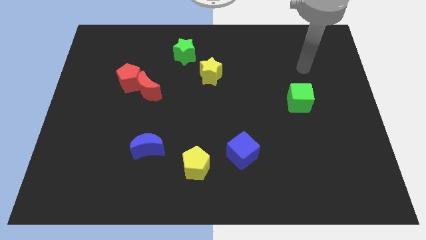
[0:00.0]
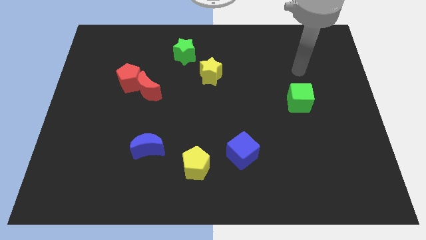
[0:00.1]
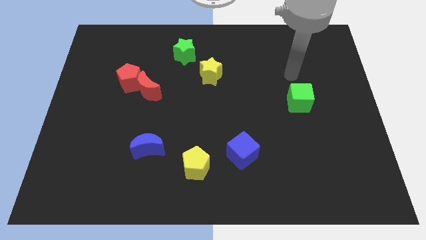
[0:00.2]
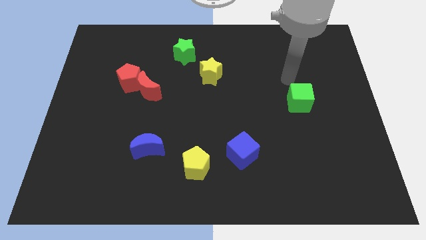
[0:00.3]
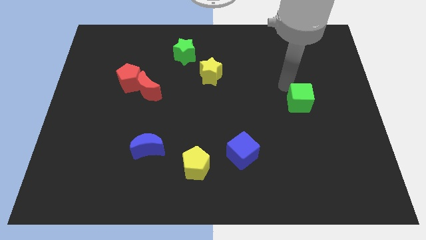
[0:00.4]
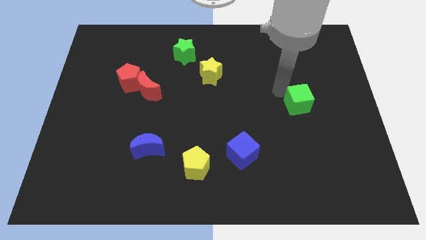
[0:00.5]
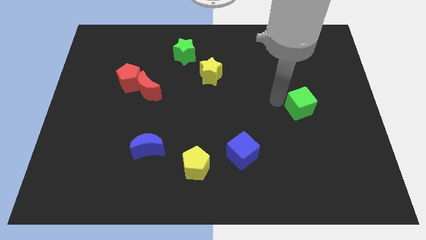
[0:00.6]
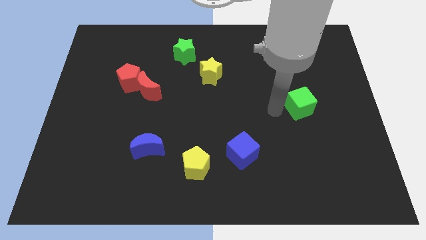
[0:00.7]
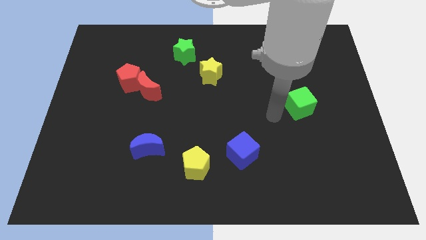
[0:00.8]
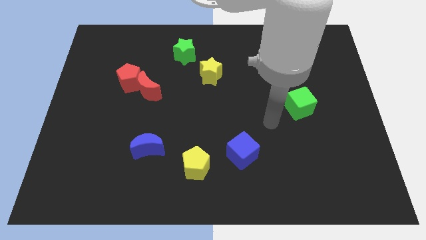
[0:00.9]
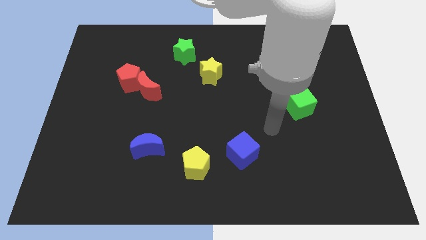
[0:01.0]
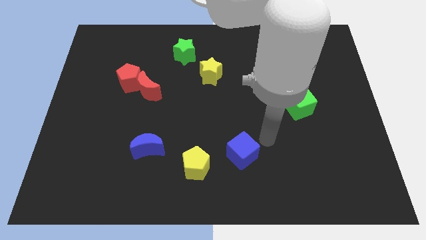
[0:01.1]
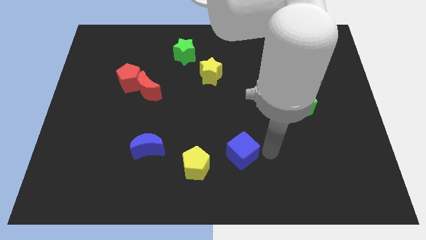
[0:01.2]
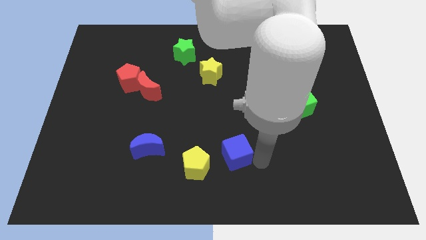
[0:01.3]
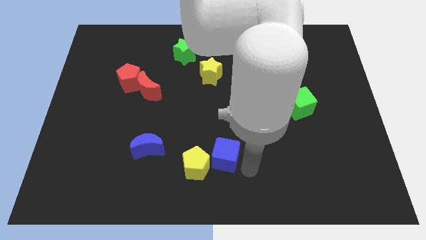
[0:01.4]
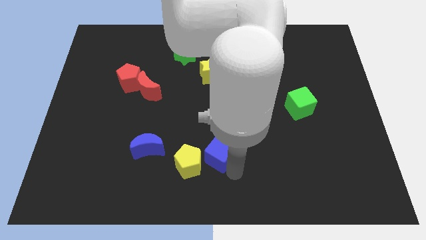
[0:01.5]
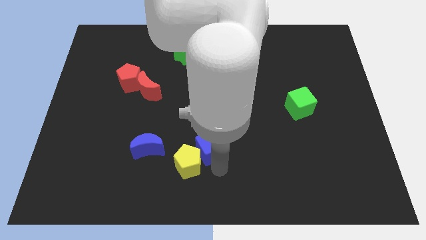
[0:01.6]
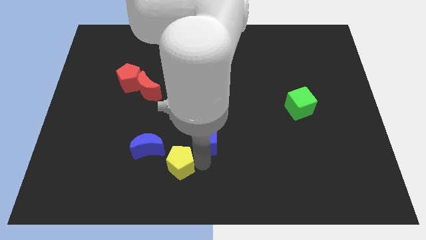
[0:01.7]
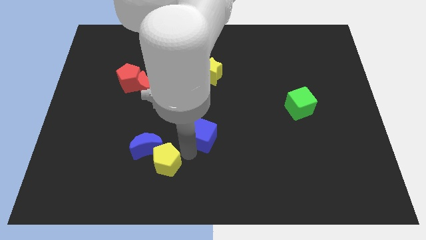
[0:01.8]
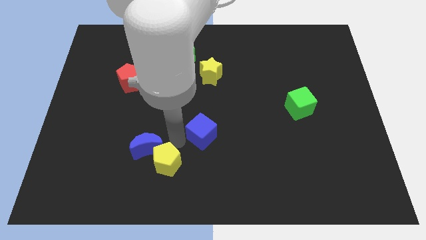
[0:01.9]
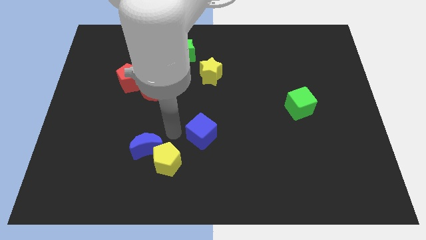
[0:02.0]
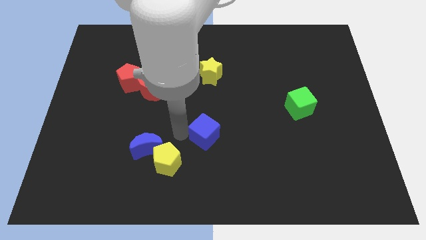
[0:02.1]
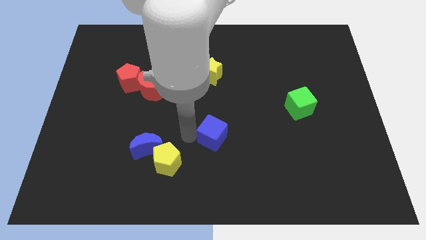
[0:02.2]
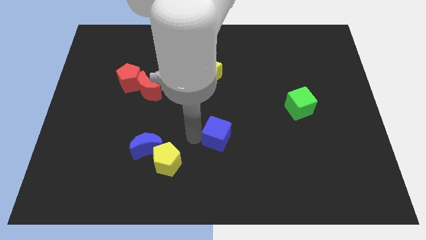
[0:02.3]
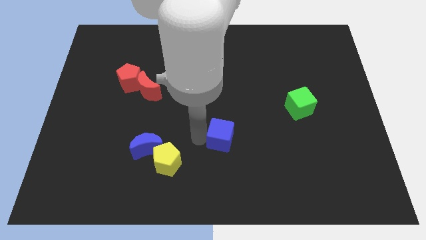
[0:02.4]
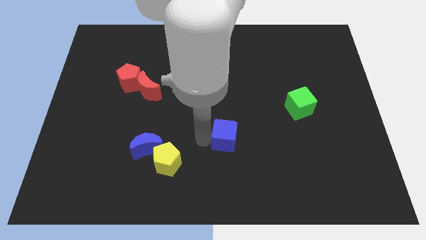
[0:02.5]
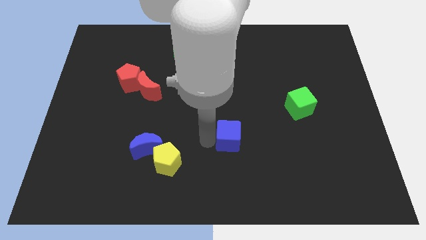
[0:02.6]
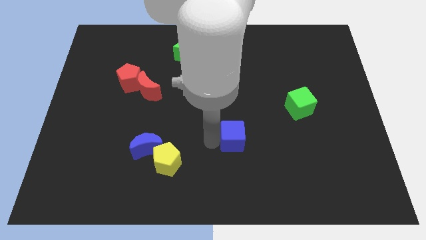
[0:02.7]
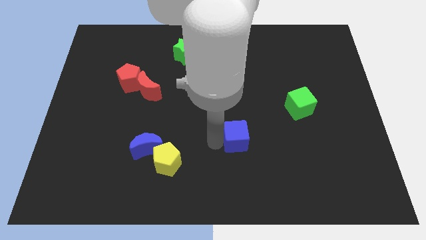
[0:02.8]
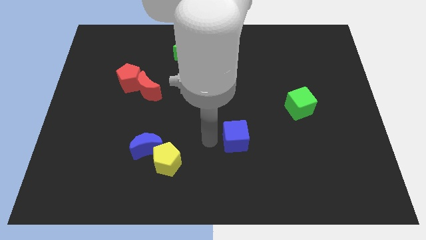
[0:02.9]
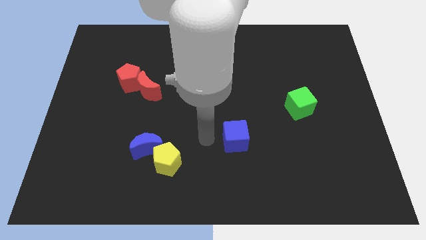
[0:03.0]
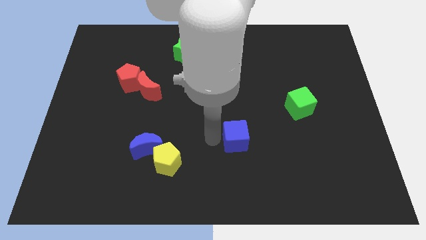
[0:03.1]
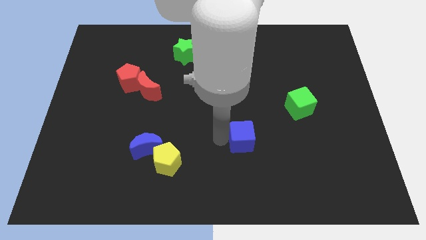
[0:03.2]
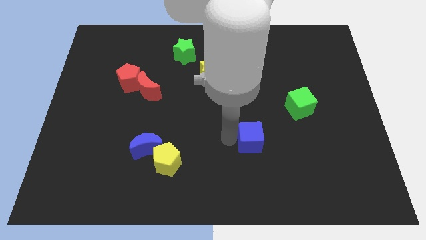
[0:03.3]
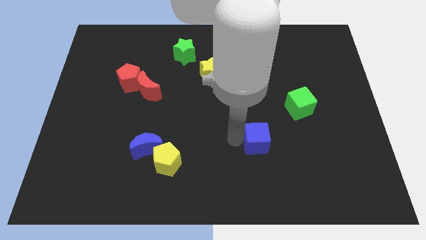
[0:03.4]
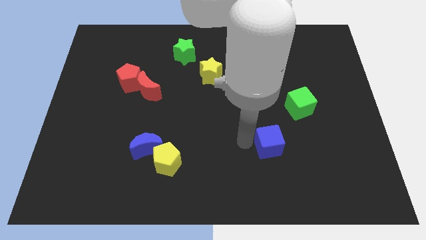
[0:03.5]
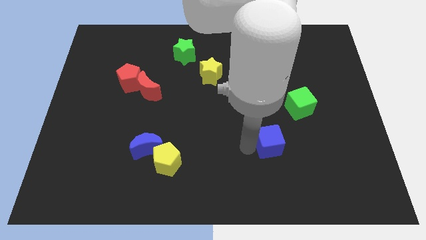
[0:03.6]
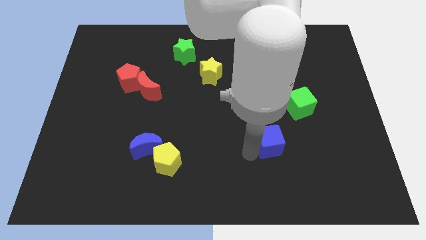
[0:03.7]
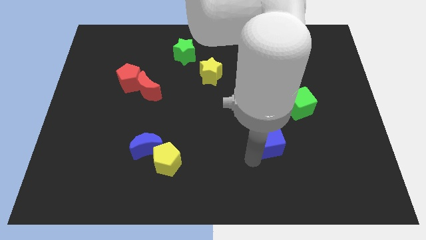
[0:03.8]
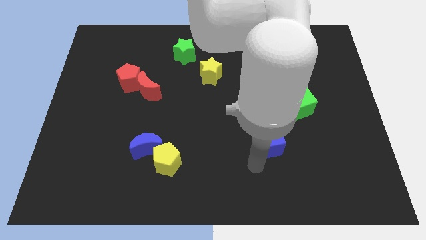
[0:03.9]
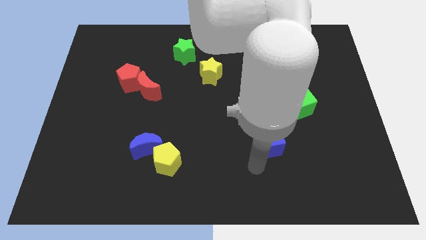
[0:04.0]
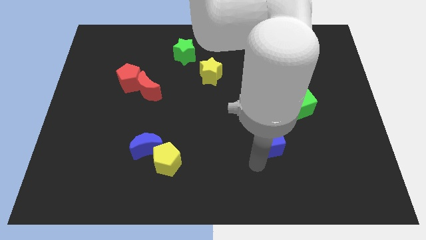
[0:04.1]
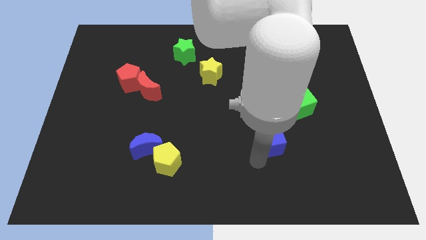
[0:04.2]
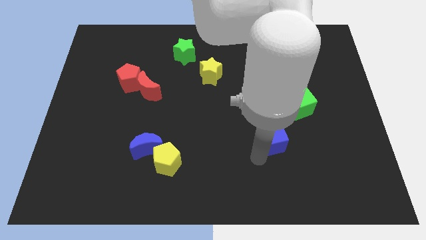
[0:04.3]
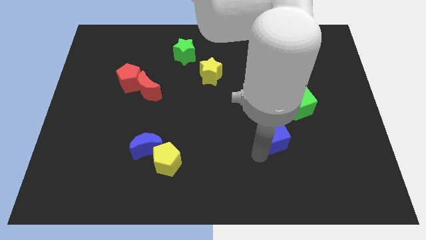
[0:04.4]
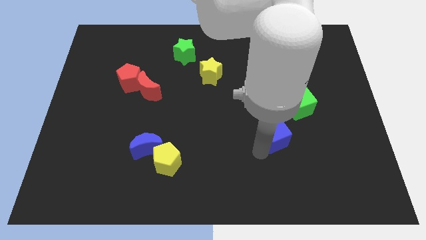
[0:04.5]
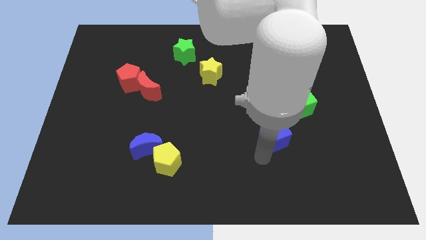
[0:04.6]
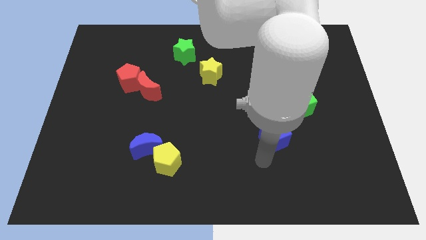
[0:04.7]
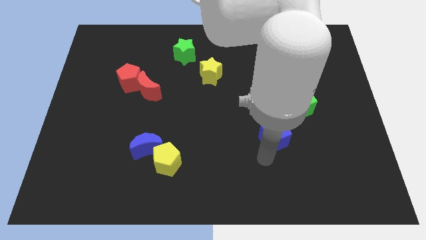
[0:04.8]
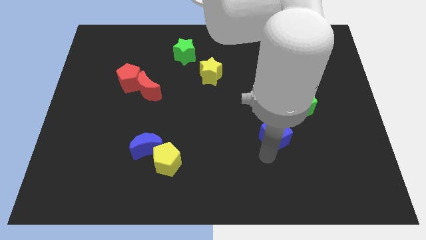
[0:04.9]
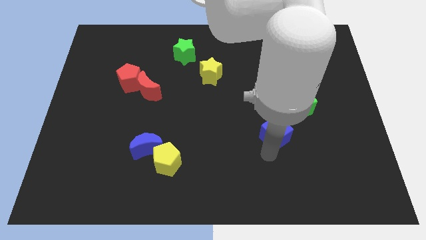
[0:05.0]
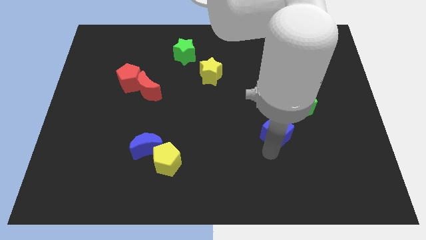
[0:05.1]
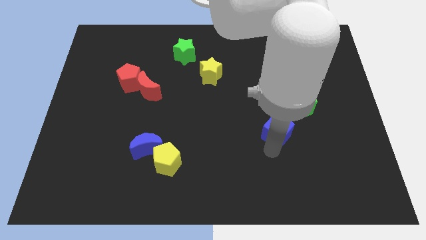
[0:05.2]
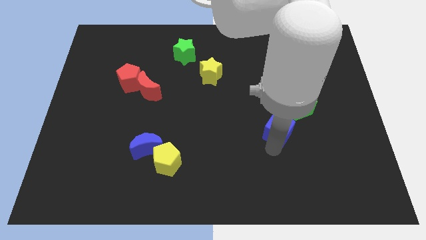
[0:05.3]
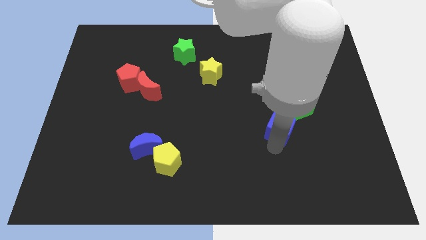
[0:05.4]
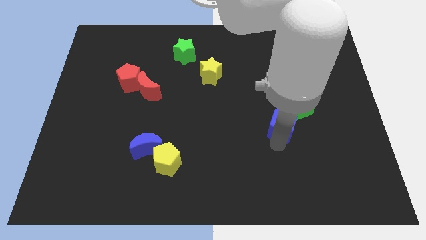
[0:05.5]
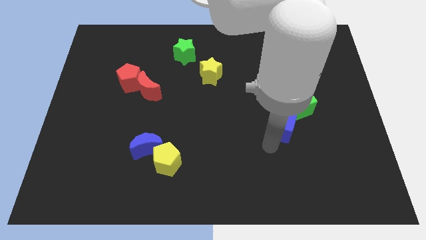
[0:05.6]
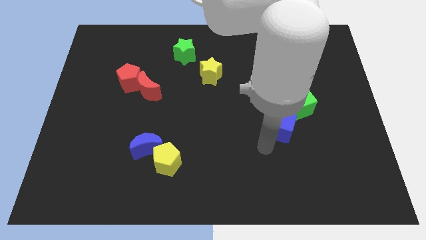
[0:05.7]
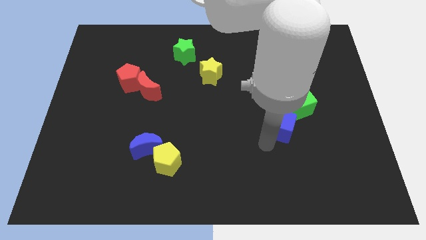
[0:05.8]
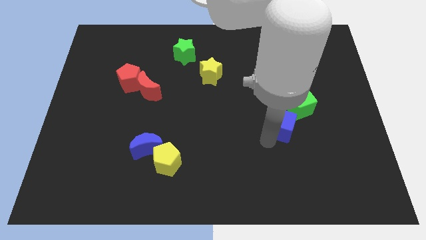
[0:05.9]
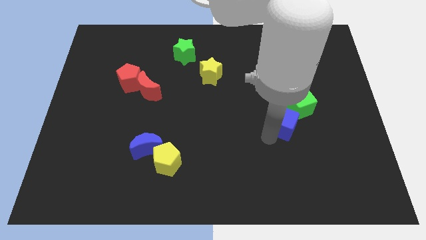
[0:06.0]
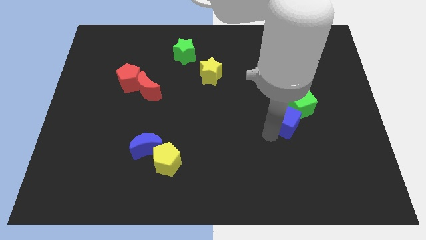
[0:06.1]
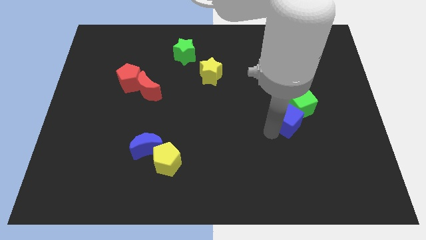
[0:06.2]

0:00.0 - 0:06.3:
push the blue cube next to the green cube

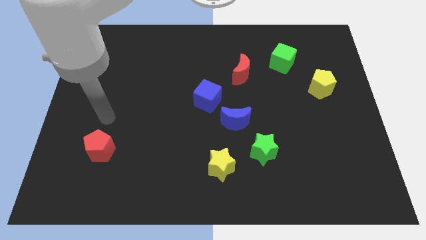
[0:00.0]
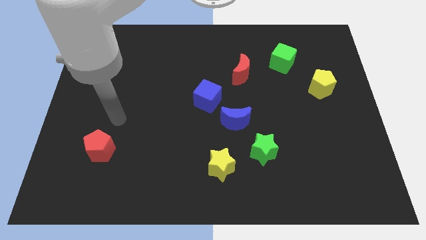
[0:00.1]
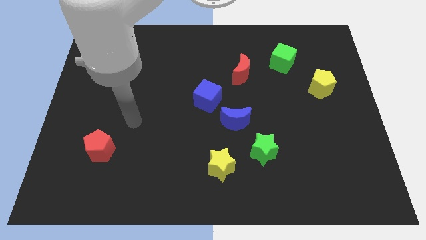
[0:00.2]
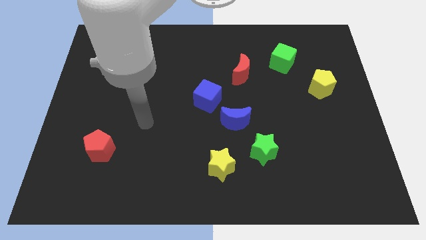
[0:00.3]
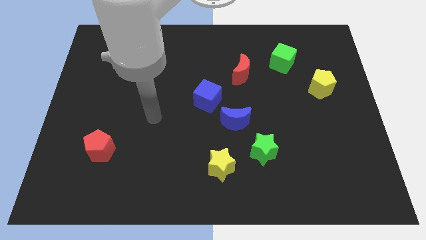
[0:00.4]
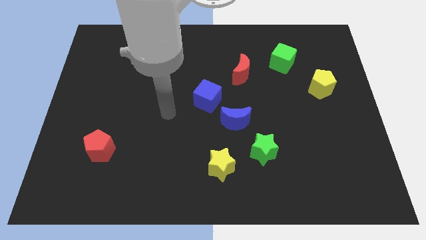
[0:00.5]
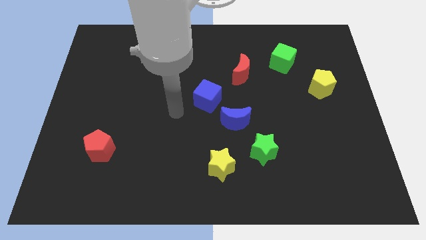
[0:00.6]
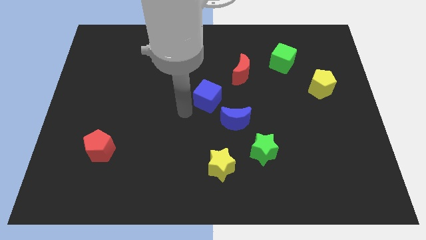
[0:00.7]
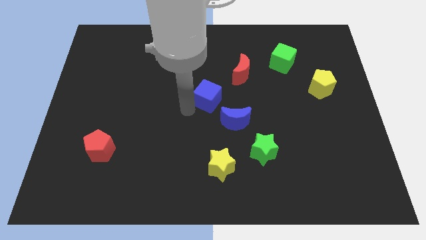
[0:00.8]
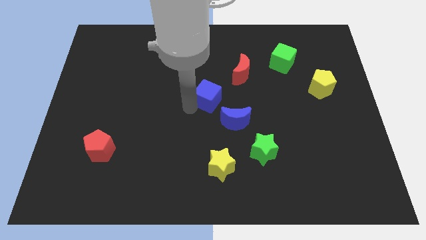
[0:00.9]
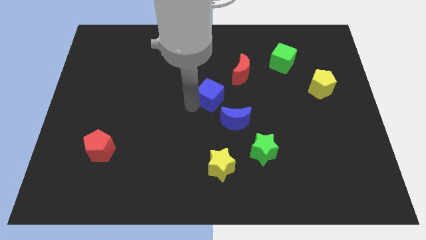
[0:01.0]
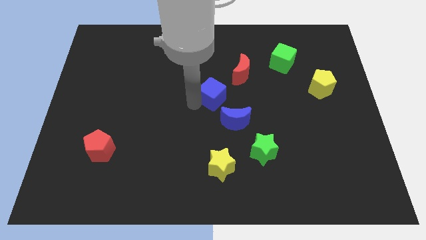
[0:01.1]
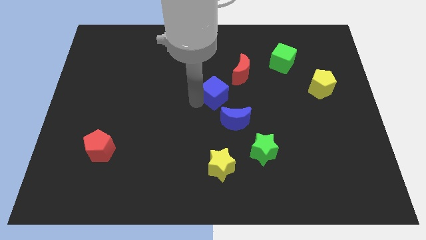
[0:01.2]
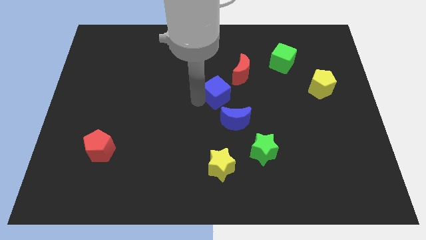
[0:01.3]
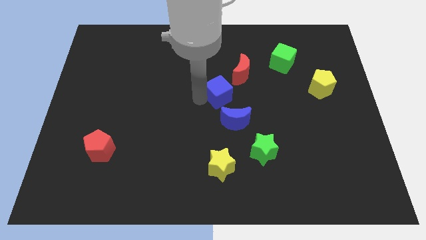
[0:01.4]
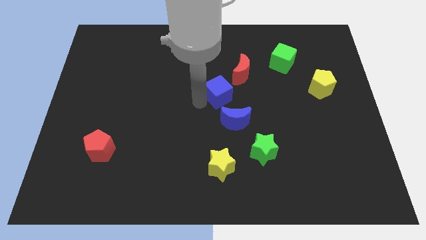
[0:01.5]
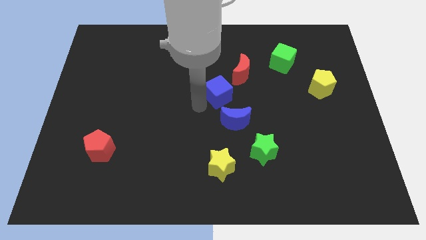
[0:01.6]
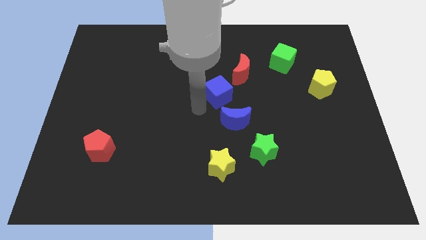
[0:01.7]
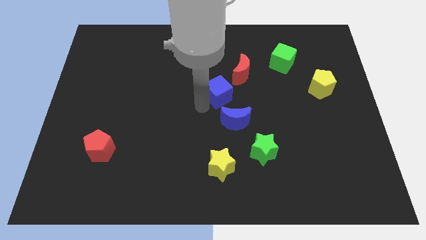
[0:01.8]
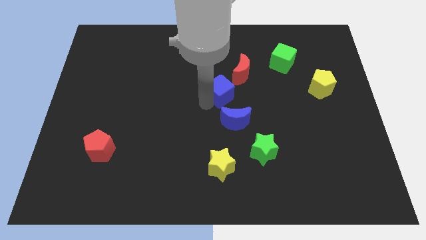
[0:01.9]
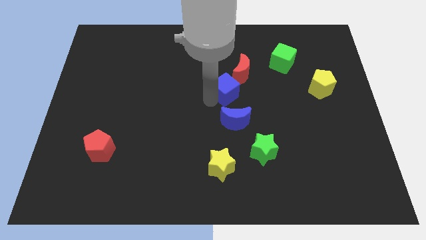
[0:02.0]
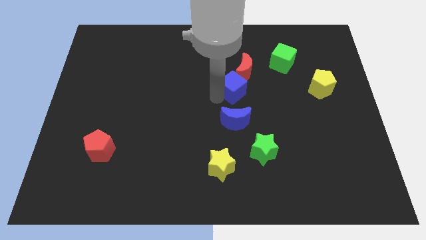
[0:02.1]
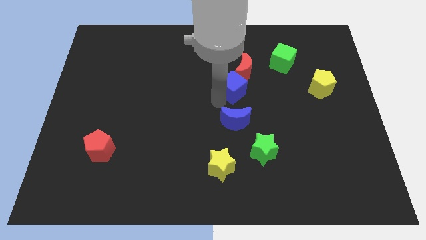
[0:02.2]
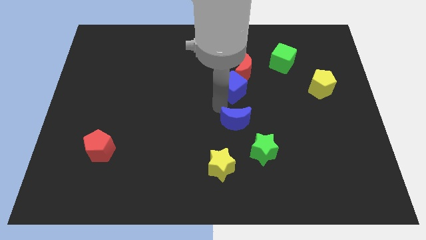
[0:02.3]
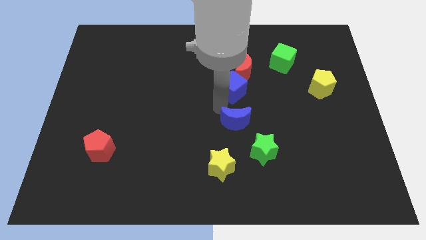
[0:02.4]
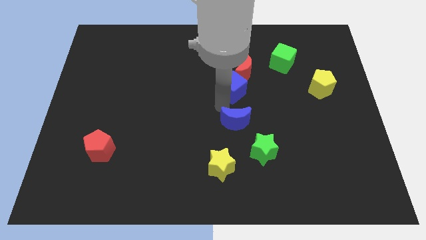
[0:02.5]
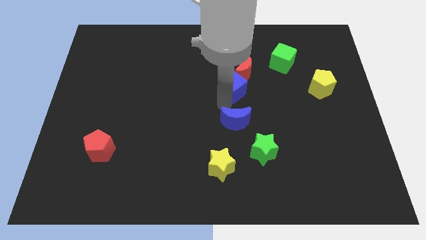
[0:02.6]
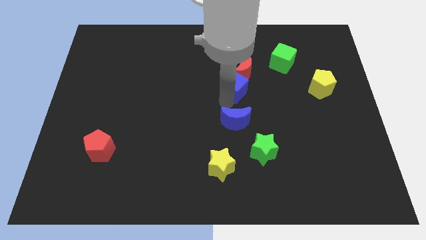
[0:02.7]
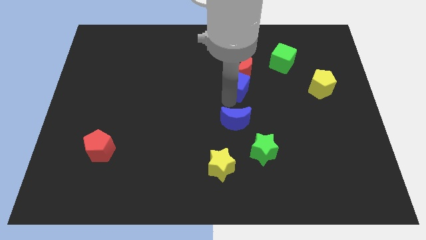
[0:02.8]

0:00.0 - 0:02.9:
push the blue cube towards the red moon
